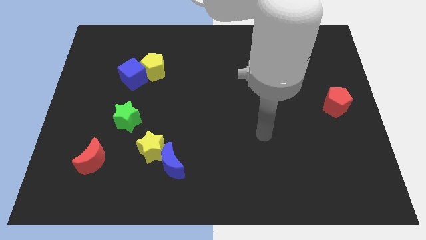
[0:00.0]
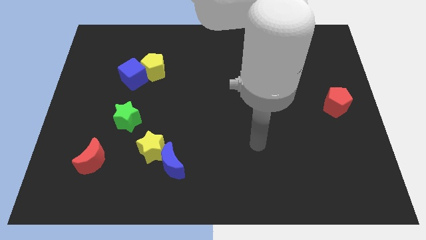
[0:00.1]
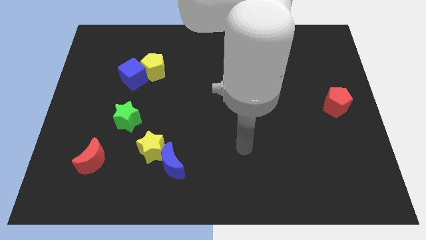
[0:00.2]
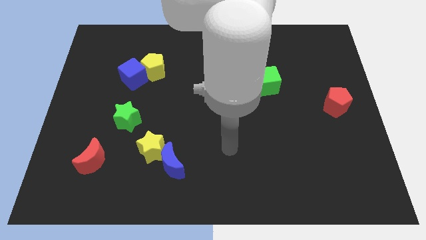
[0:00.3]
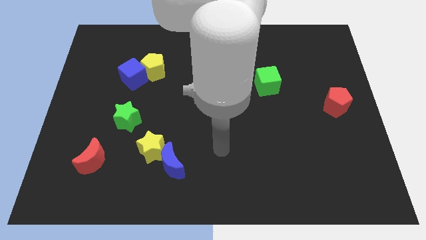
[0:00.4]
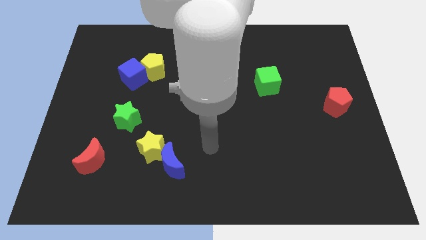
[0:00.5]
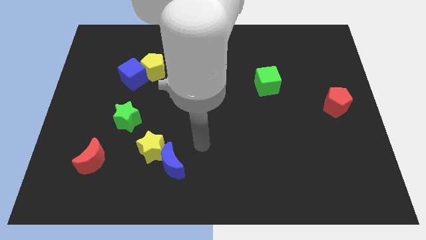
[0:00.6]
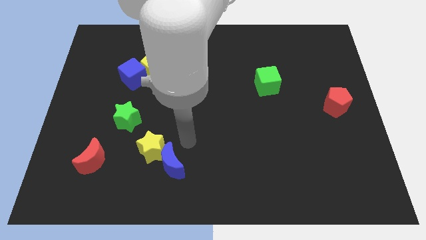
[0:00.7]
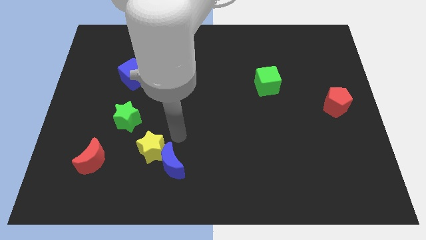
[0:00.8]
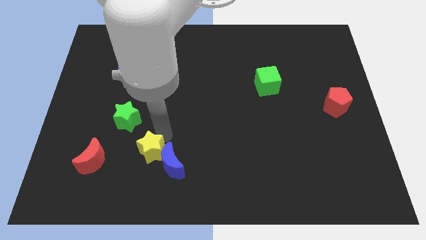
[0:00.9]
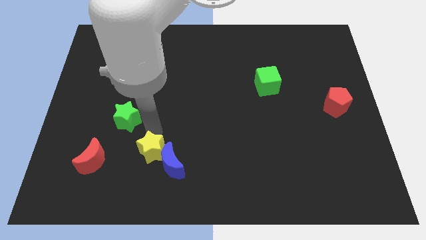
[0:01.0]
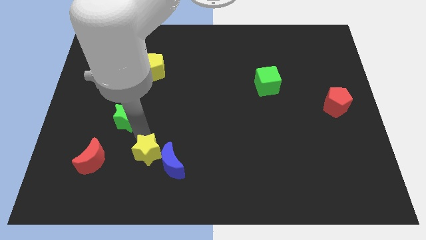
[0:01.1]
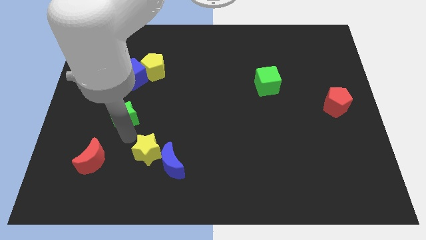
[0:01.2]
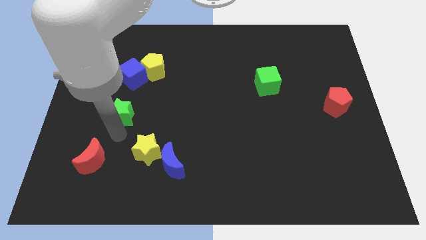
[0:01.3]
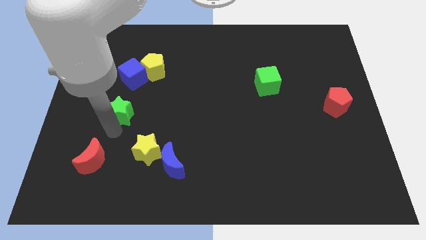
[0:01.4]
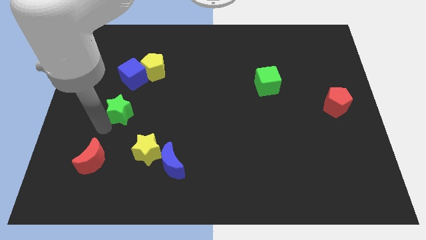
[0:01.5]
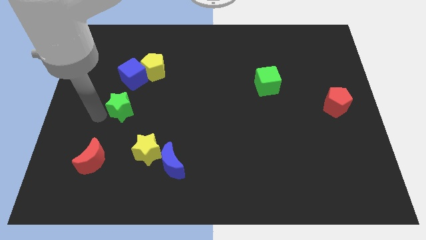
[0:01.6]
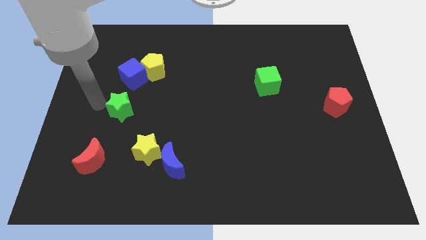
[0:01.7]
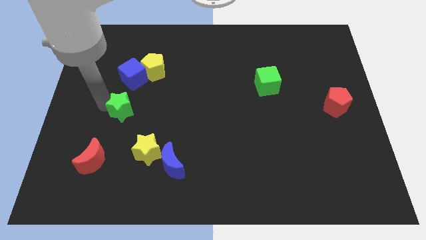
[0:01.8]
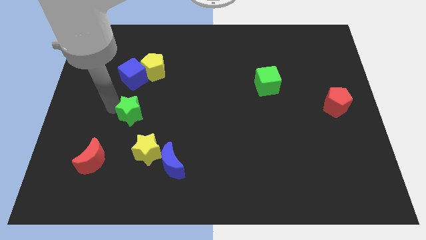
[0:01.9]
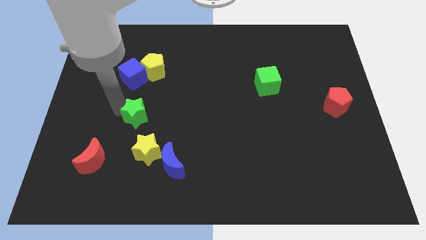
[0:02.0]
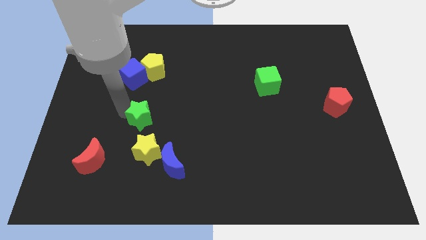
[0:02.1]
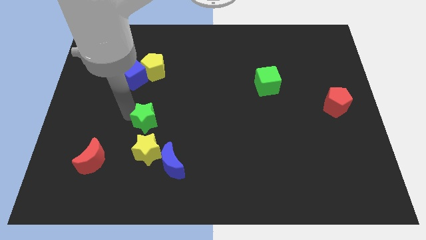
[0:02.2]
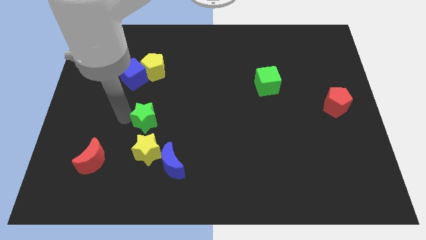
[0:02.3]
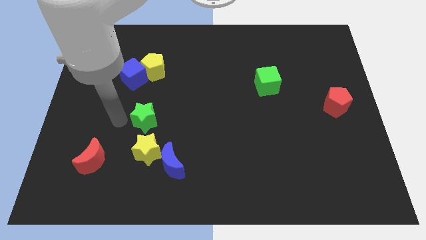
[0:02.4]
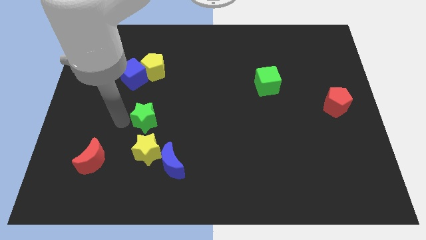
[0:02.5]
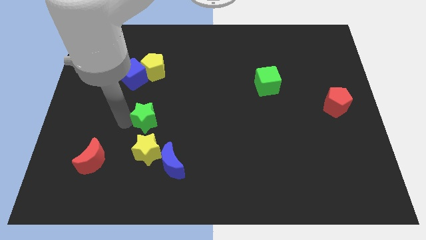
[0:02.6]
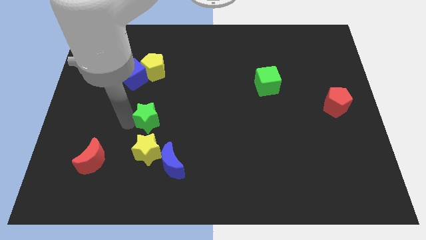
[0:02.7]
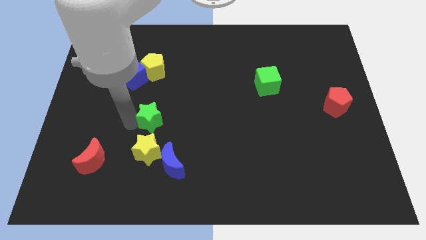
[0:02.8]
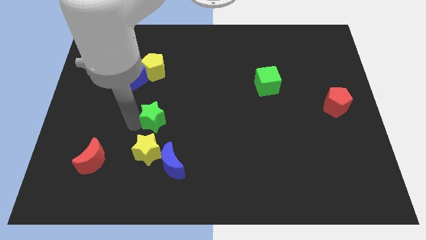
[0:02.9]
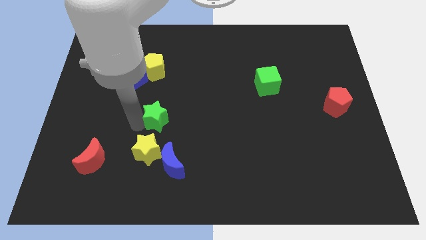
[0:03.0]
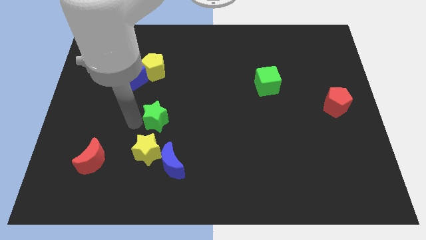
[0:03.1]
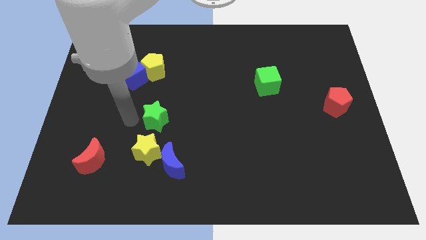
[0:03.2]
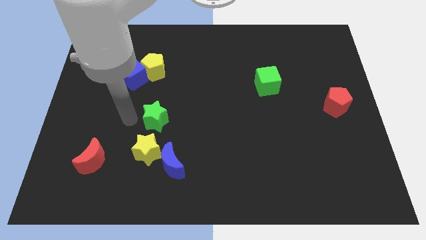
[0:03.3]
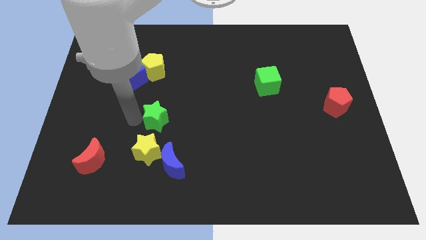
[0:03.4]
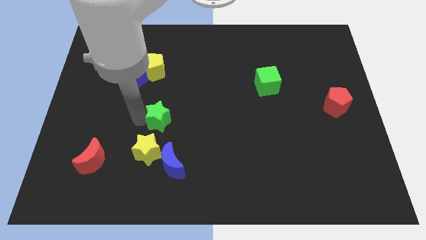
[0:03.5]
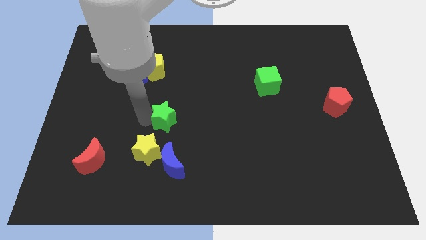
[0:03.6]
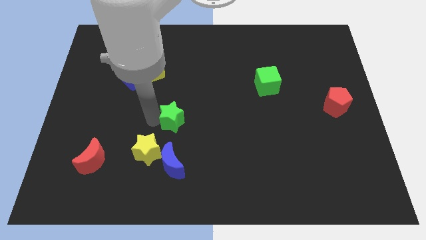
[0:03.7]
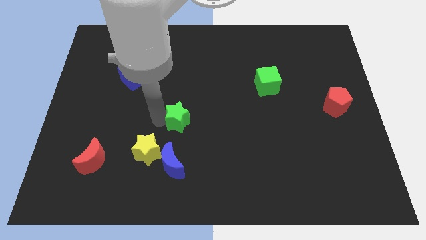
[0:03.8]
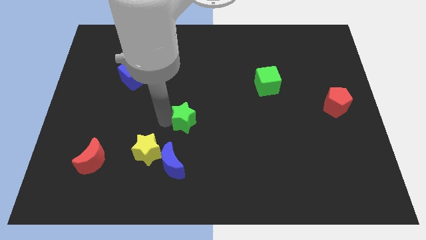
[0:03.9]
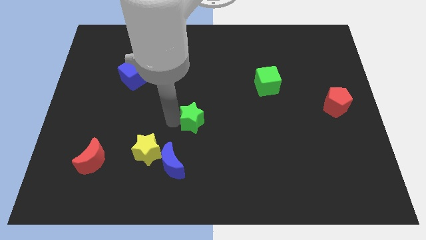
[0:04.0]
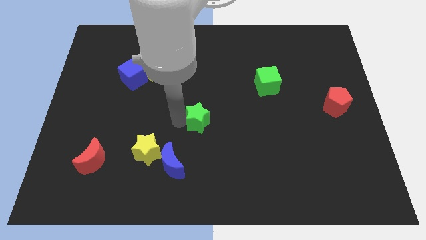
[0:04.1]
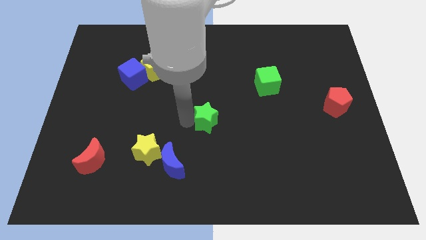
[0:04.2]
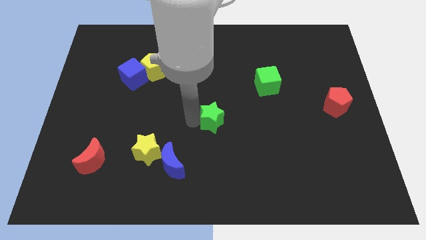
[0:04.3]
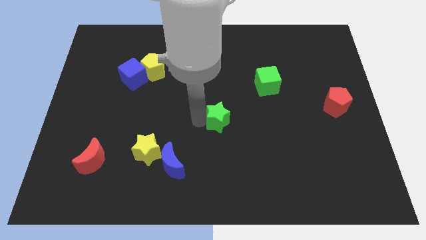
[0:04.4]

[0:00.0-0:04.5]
slide the green star to the right

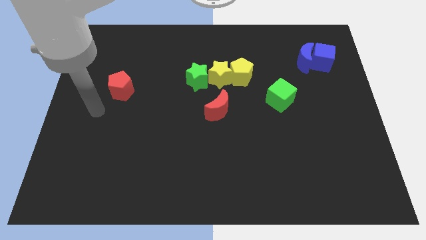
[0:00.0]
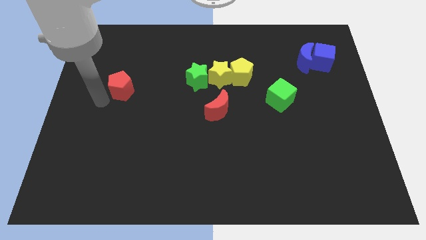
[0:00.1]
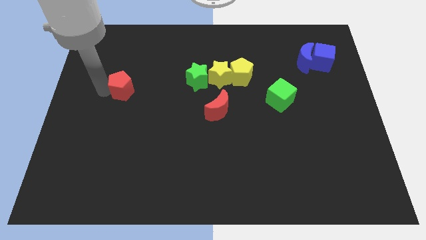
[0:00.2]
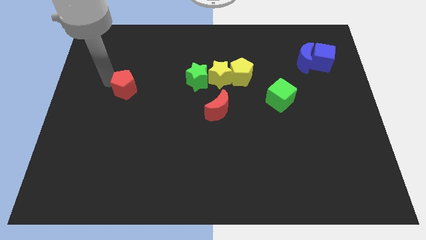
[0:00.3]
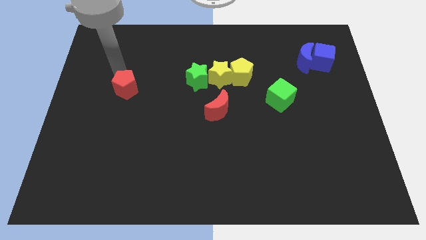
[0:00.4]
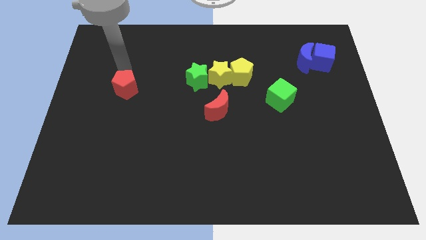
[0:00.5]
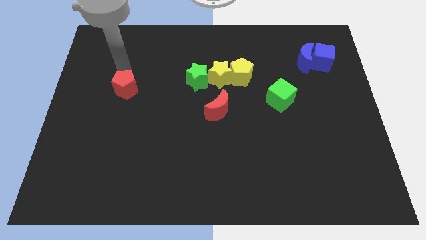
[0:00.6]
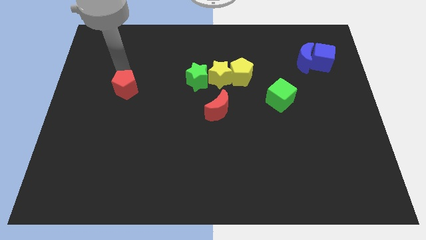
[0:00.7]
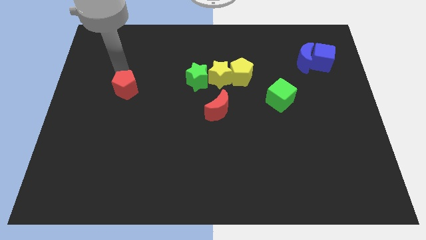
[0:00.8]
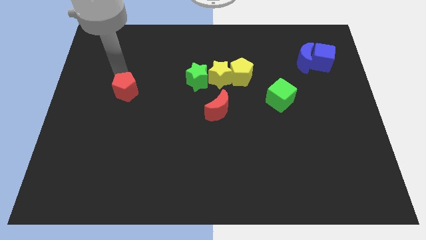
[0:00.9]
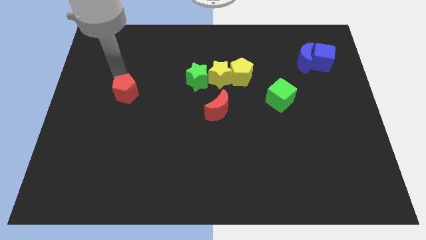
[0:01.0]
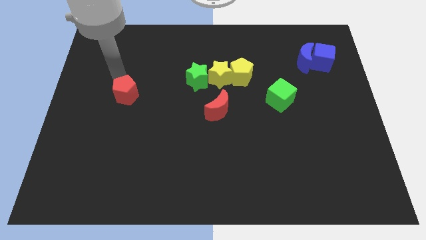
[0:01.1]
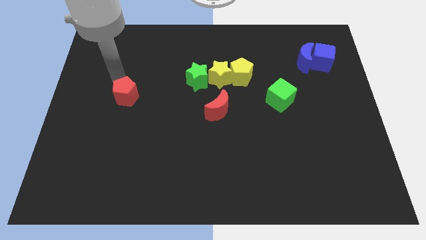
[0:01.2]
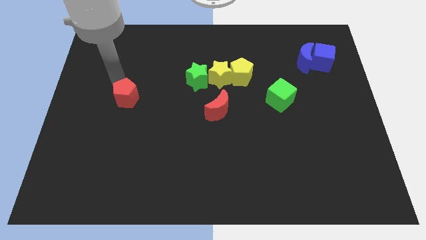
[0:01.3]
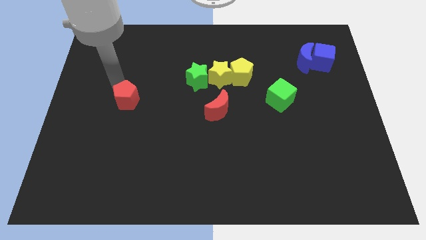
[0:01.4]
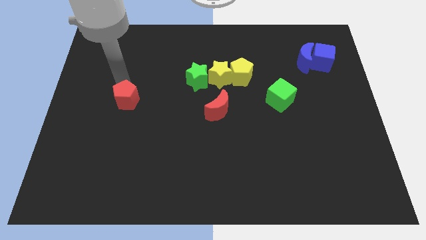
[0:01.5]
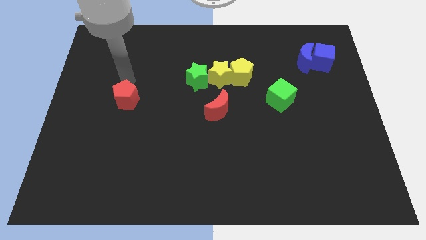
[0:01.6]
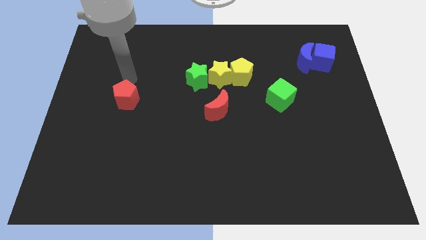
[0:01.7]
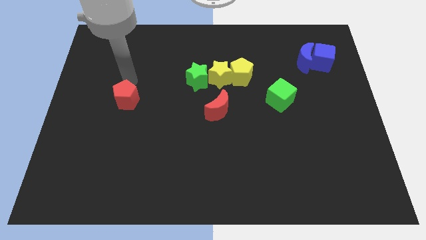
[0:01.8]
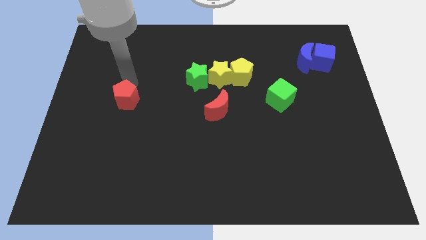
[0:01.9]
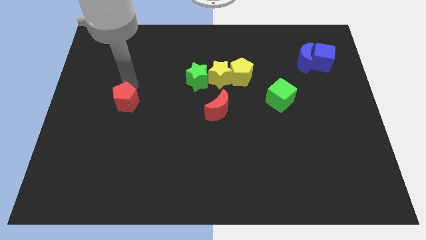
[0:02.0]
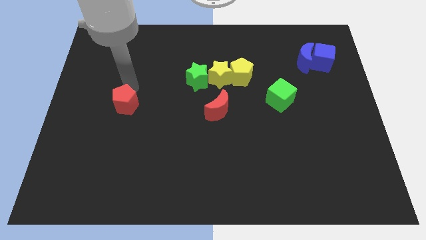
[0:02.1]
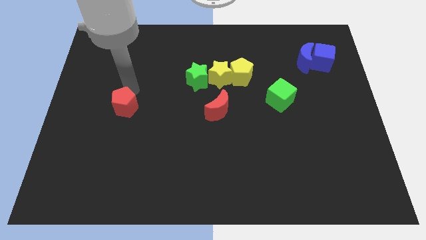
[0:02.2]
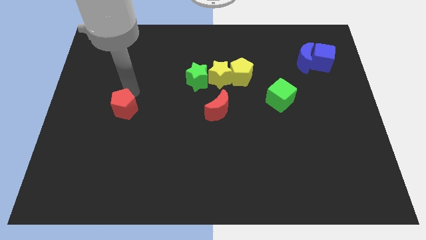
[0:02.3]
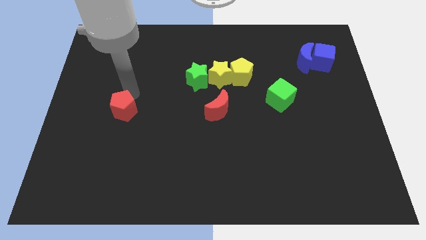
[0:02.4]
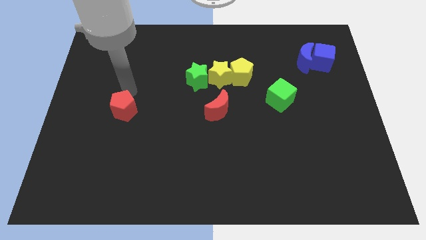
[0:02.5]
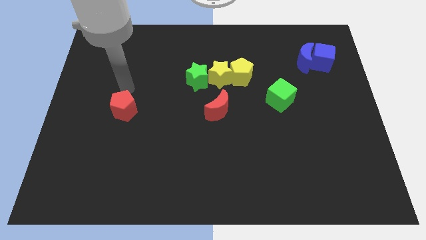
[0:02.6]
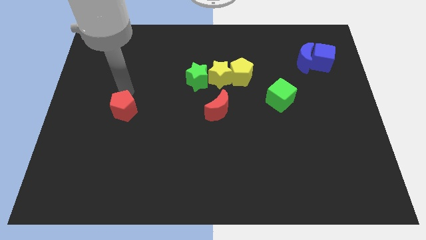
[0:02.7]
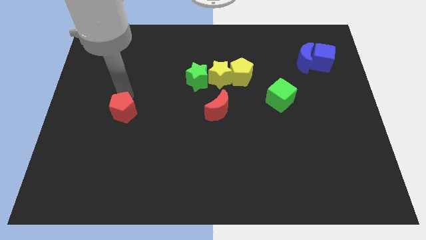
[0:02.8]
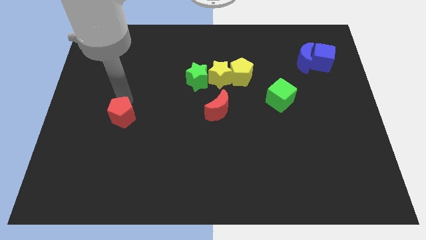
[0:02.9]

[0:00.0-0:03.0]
move the red pentagon a bit downwards

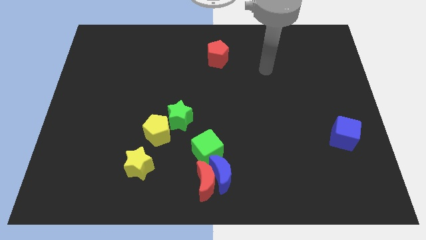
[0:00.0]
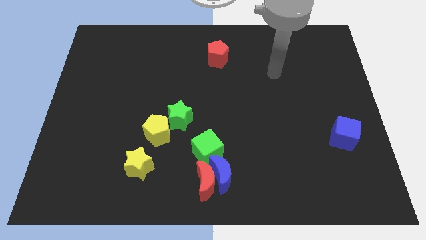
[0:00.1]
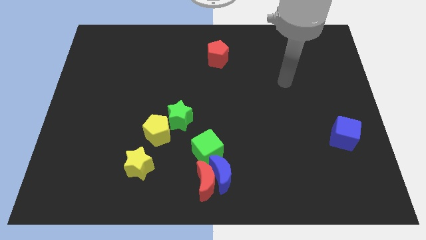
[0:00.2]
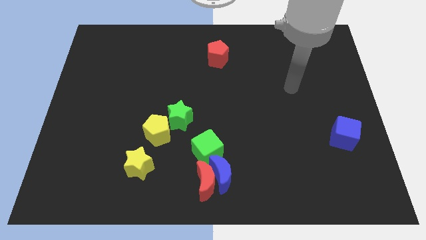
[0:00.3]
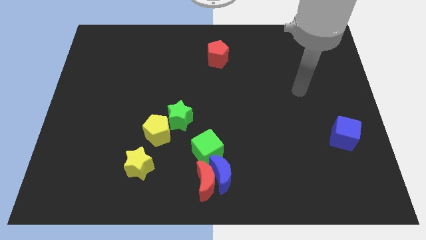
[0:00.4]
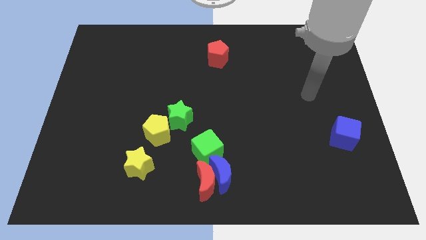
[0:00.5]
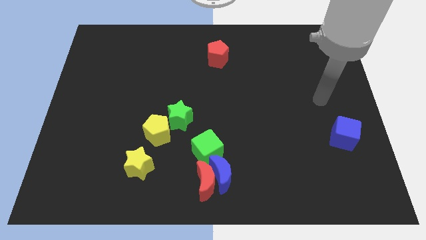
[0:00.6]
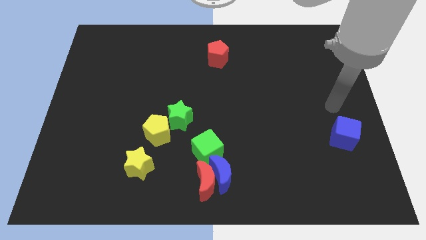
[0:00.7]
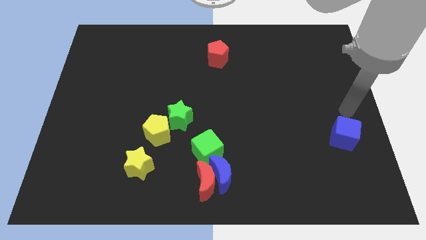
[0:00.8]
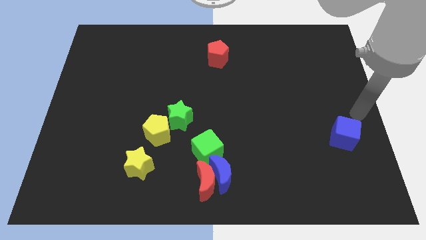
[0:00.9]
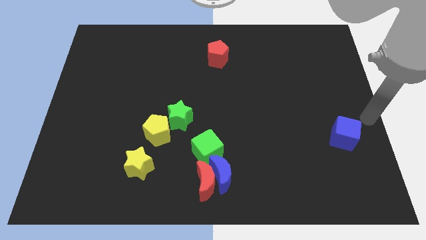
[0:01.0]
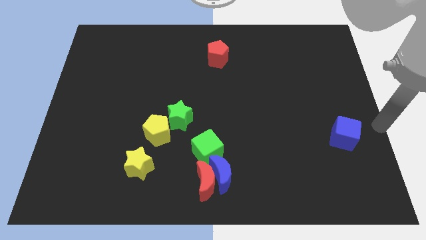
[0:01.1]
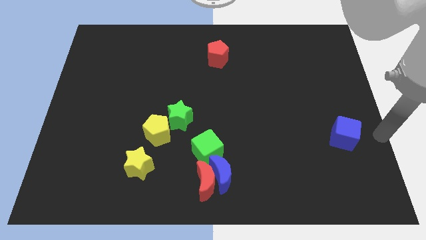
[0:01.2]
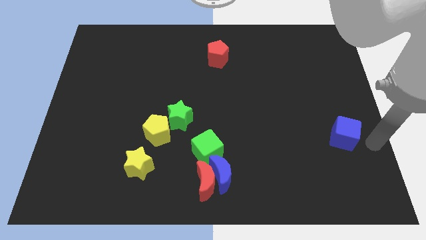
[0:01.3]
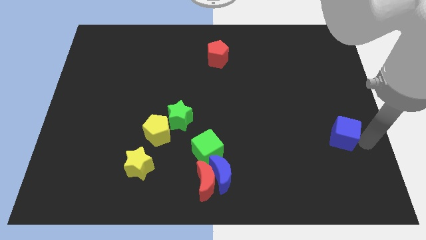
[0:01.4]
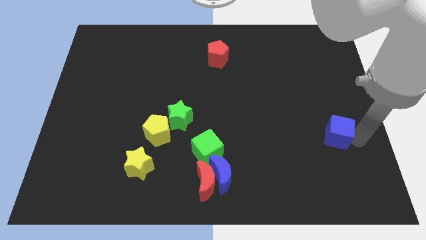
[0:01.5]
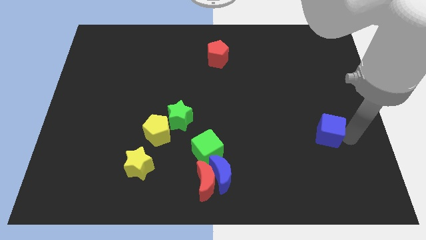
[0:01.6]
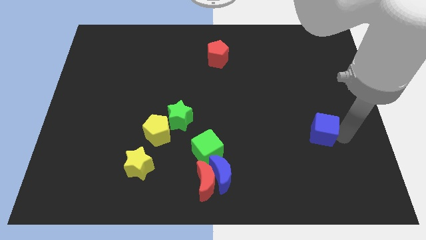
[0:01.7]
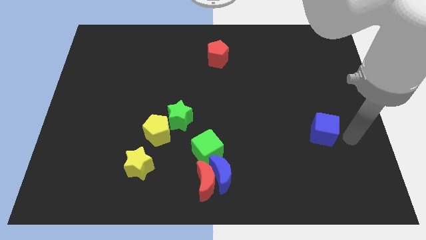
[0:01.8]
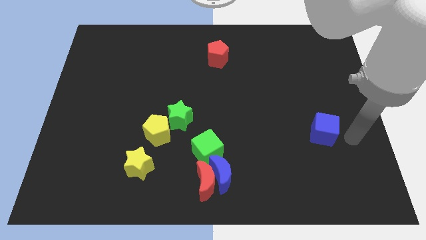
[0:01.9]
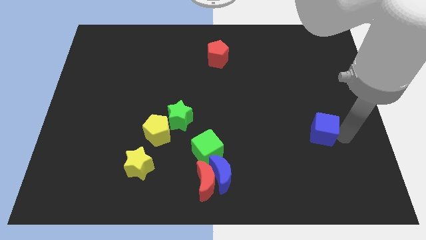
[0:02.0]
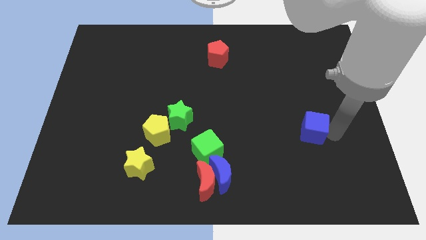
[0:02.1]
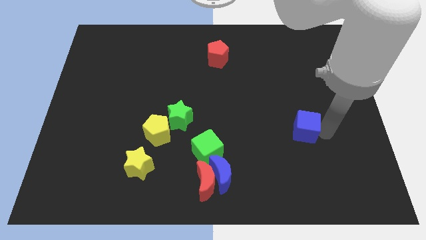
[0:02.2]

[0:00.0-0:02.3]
push the blue cube somewhat left
